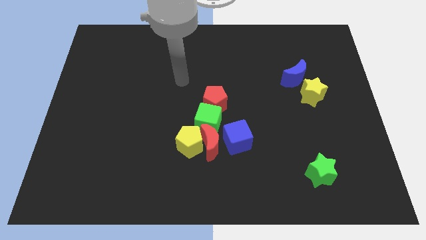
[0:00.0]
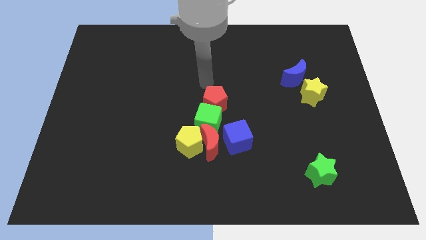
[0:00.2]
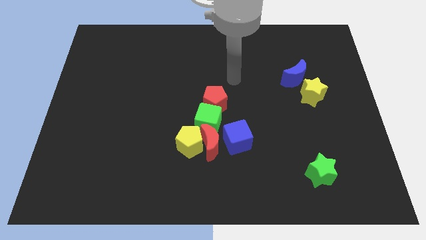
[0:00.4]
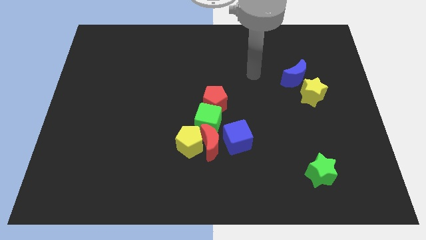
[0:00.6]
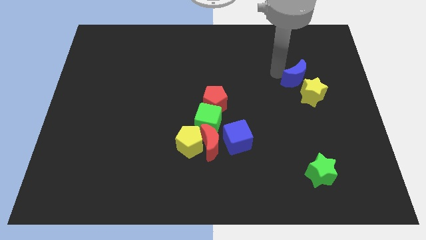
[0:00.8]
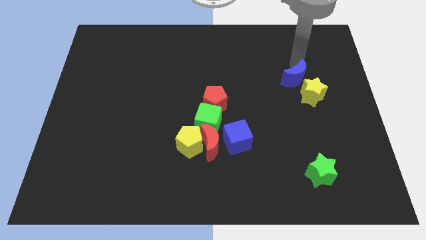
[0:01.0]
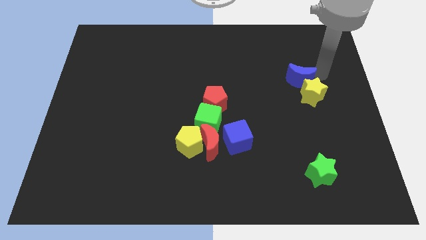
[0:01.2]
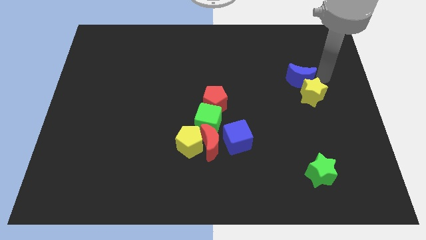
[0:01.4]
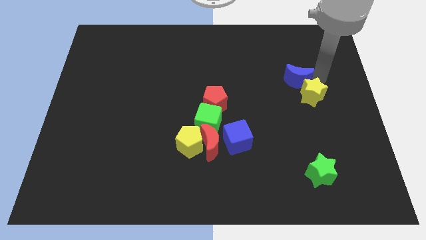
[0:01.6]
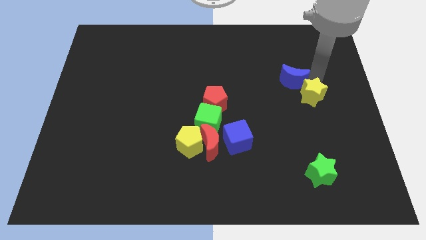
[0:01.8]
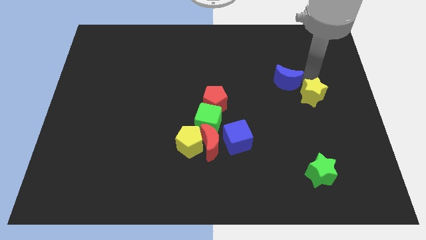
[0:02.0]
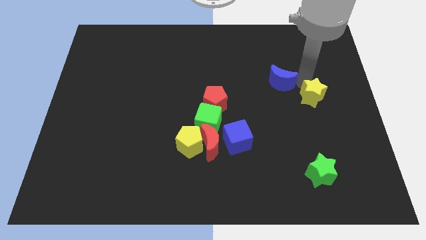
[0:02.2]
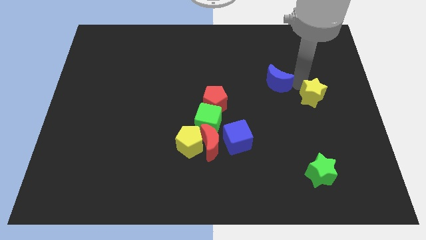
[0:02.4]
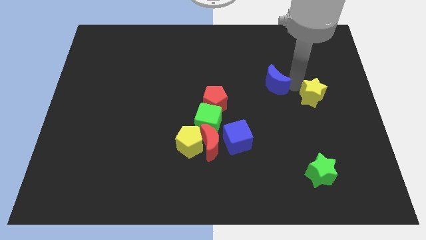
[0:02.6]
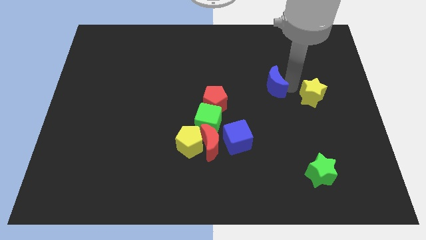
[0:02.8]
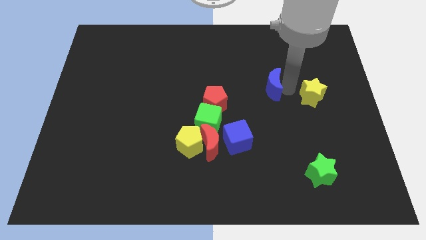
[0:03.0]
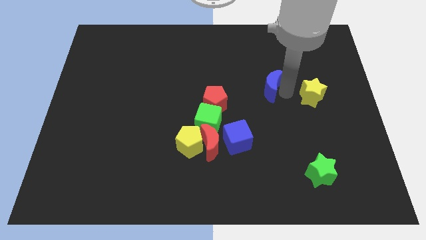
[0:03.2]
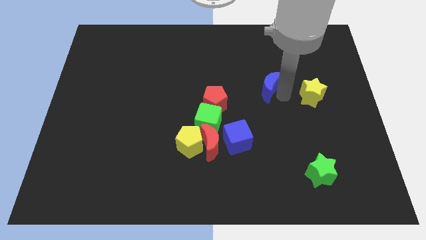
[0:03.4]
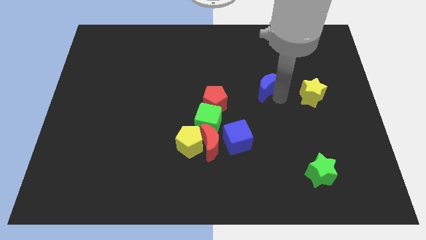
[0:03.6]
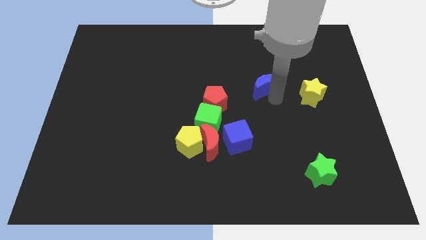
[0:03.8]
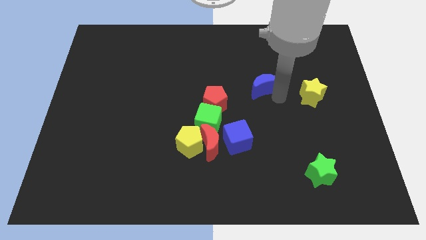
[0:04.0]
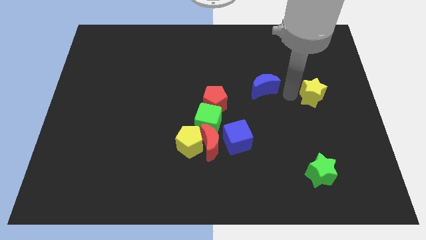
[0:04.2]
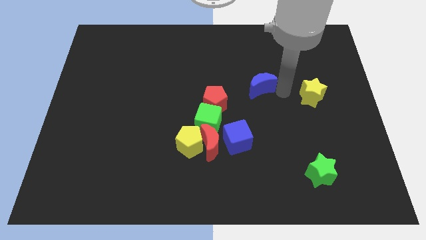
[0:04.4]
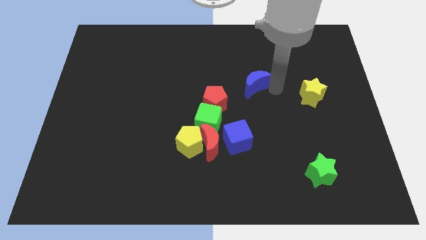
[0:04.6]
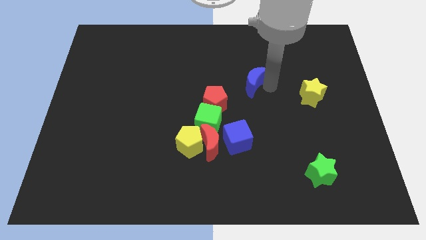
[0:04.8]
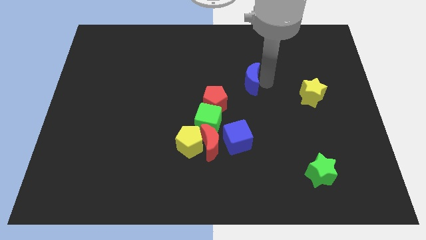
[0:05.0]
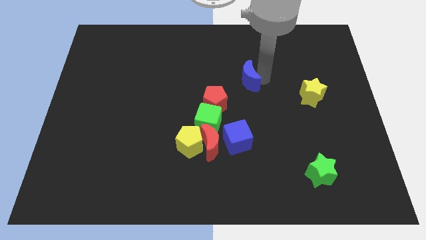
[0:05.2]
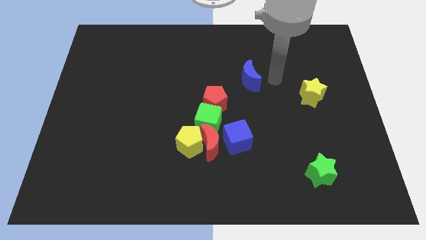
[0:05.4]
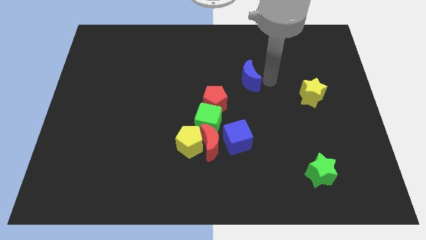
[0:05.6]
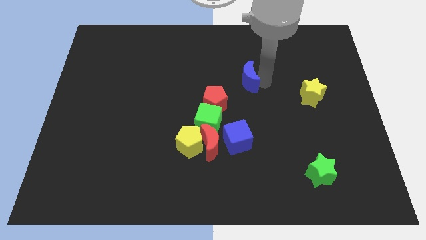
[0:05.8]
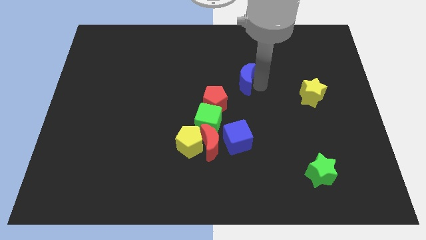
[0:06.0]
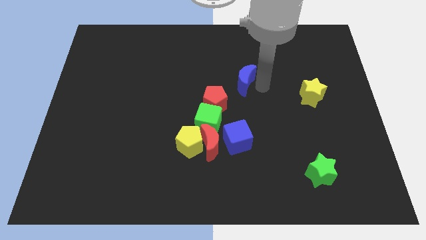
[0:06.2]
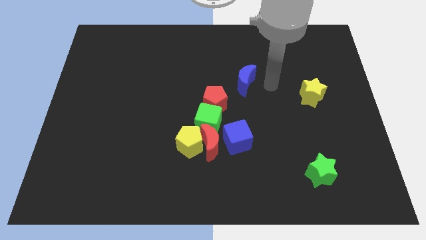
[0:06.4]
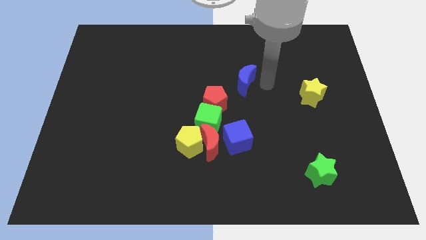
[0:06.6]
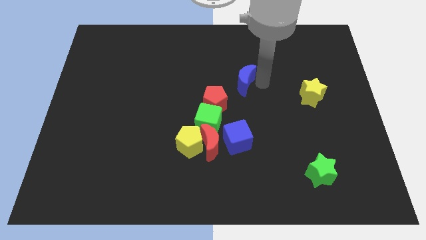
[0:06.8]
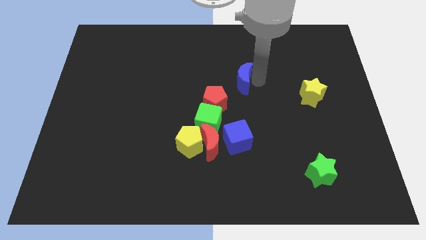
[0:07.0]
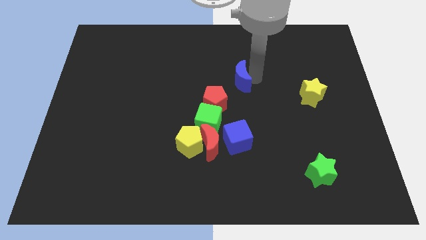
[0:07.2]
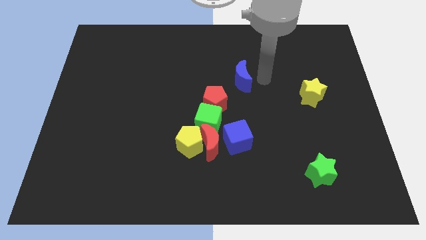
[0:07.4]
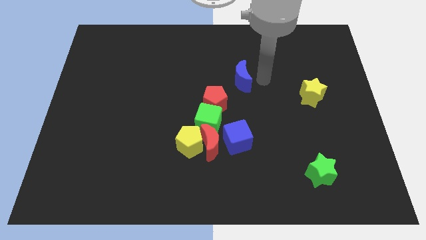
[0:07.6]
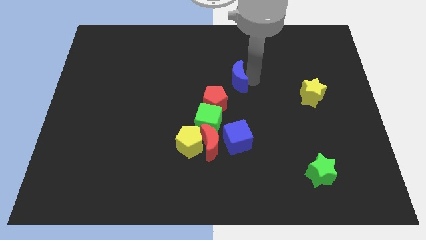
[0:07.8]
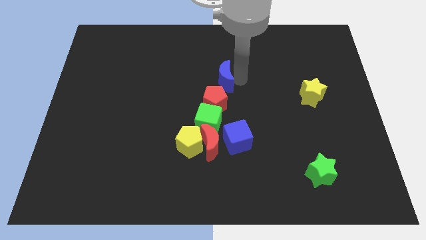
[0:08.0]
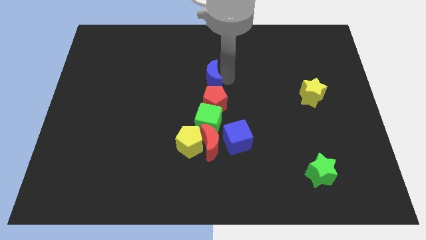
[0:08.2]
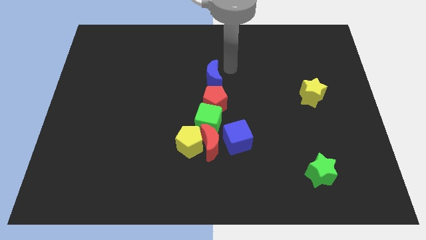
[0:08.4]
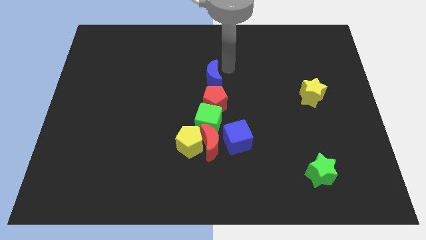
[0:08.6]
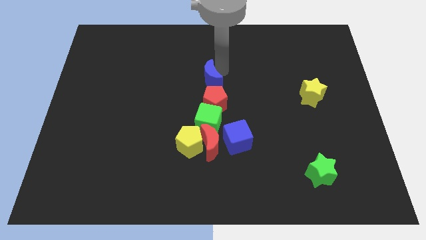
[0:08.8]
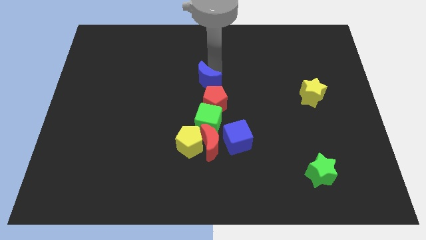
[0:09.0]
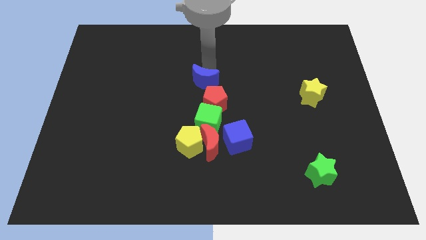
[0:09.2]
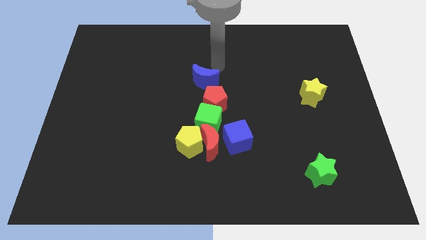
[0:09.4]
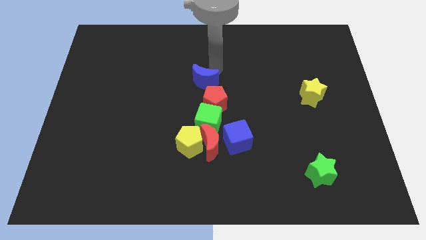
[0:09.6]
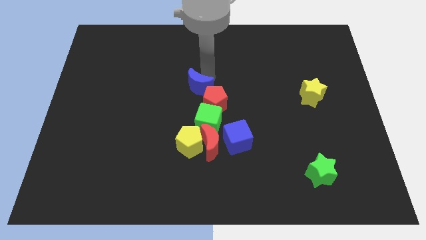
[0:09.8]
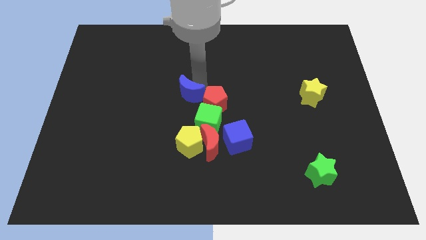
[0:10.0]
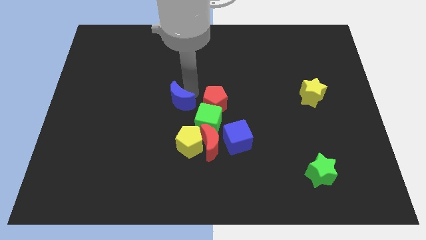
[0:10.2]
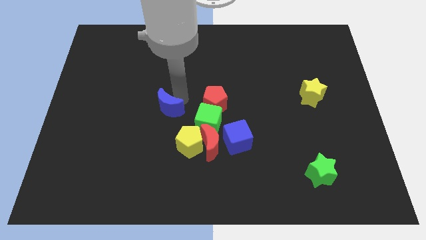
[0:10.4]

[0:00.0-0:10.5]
move the blue moon just left of the green cube
